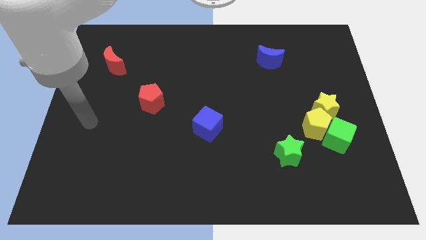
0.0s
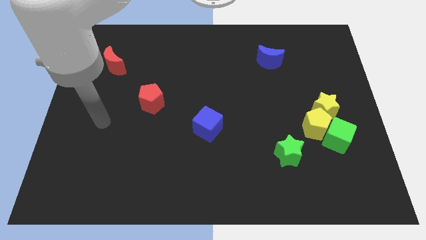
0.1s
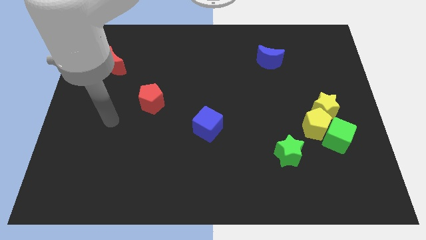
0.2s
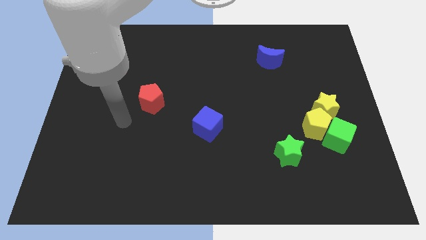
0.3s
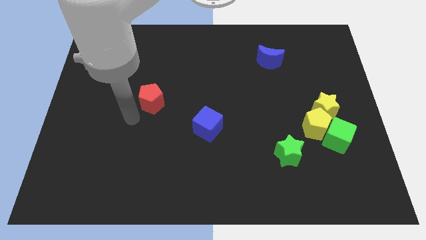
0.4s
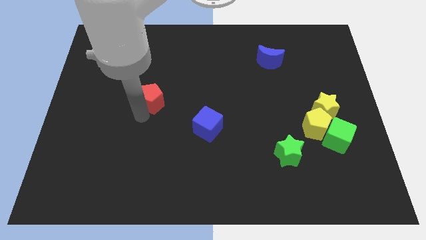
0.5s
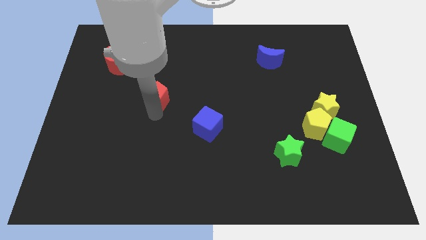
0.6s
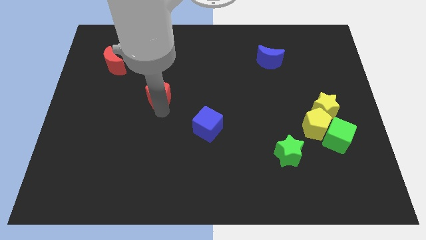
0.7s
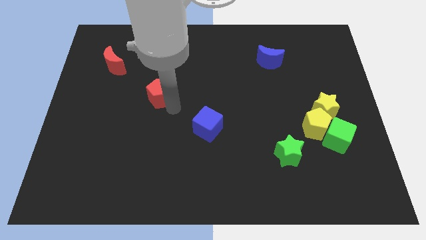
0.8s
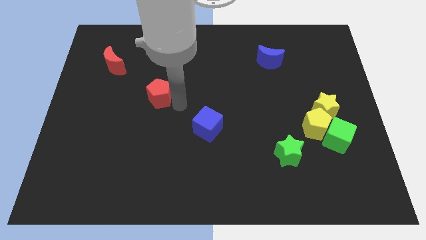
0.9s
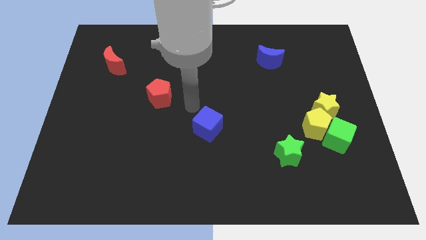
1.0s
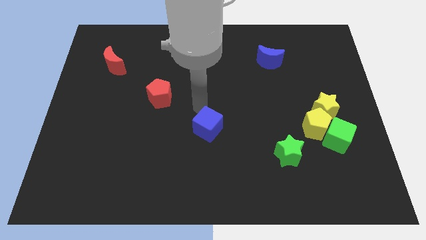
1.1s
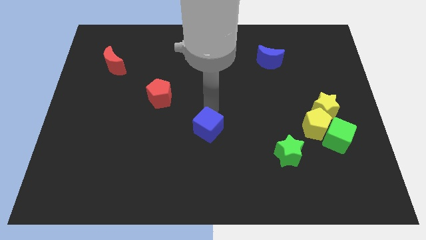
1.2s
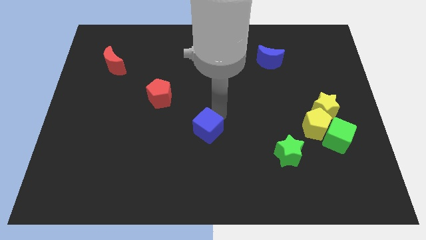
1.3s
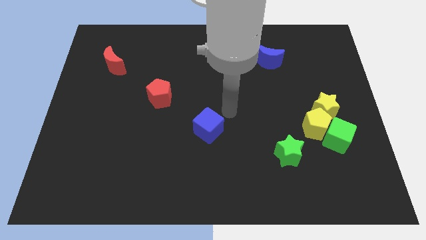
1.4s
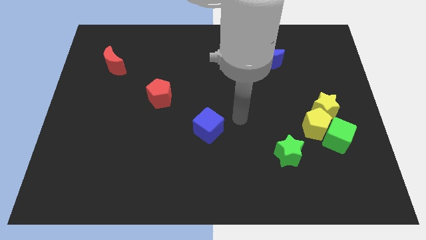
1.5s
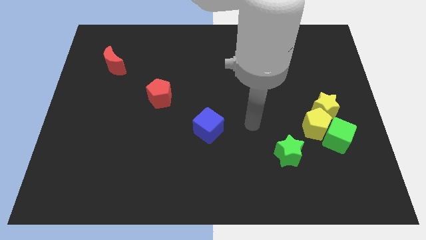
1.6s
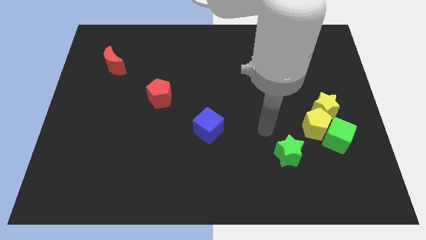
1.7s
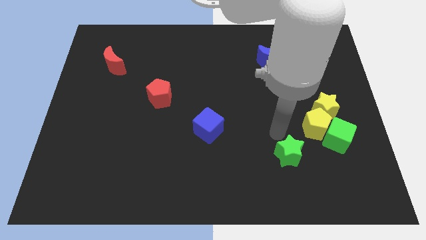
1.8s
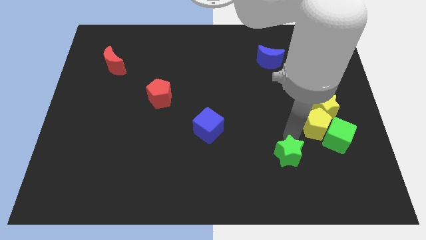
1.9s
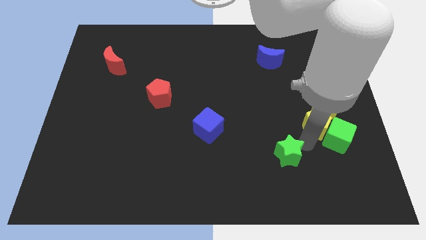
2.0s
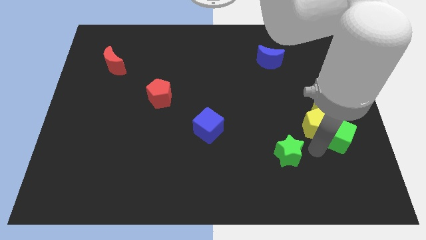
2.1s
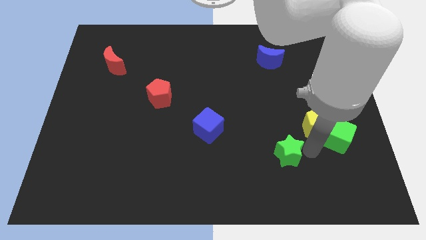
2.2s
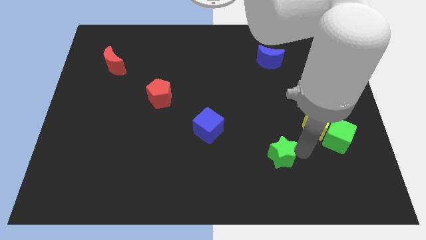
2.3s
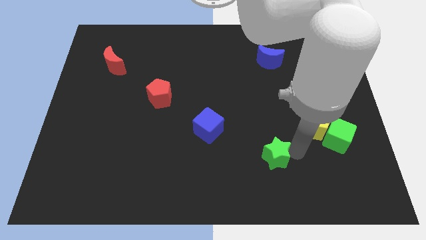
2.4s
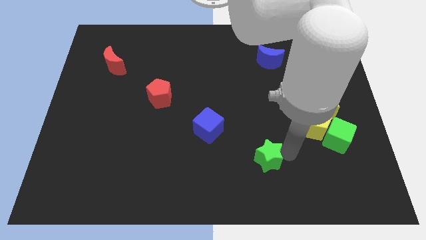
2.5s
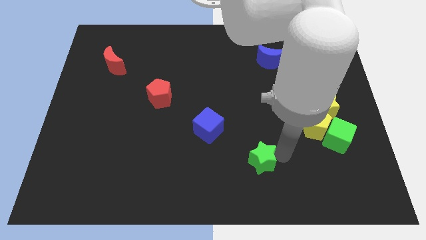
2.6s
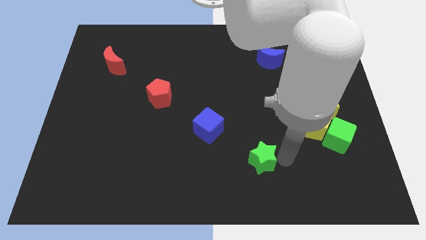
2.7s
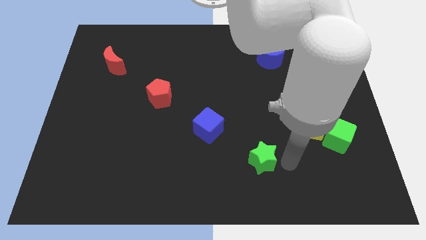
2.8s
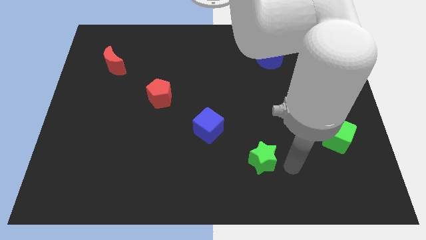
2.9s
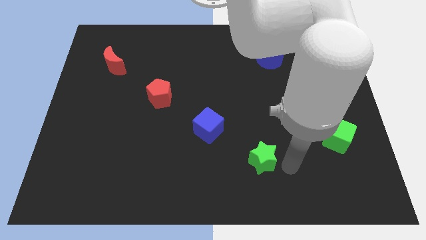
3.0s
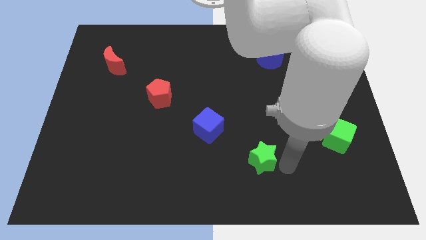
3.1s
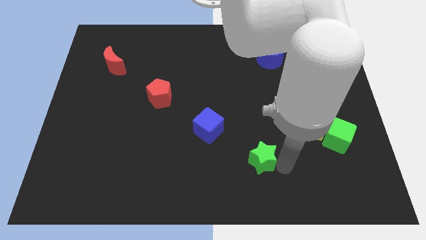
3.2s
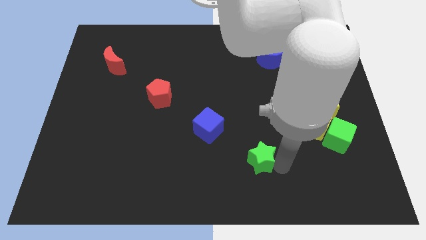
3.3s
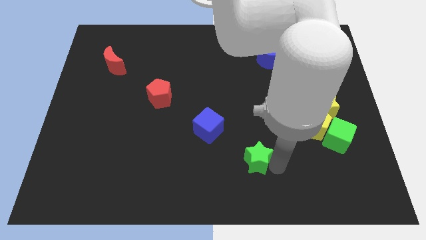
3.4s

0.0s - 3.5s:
push the green star slightly left

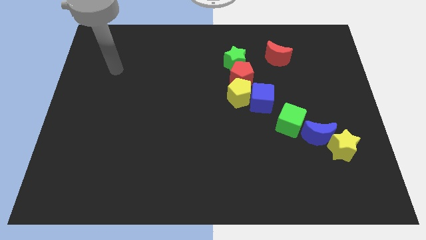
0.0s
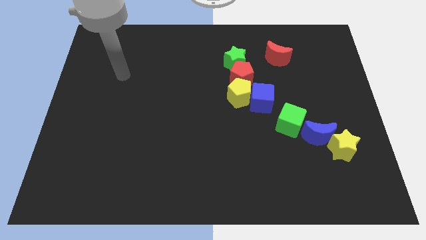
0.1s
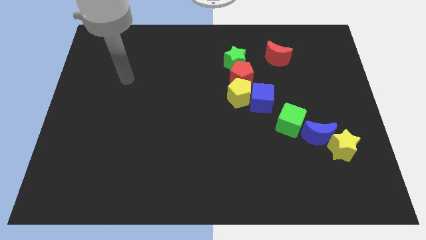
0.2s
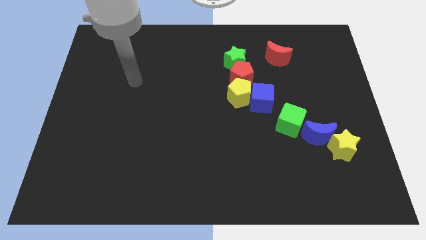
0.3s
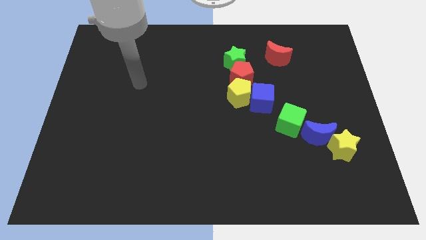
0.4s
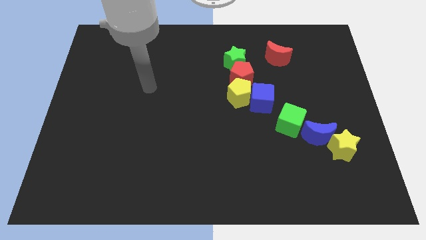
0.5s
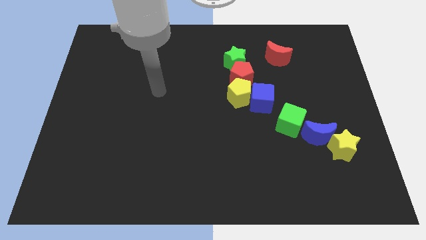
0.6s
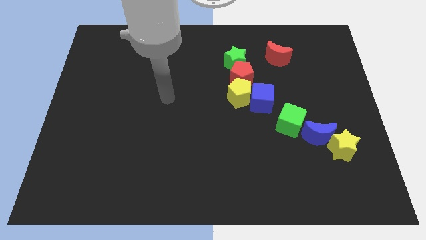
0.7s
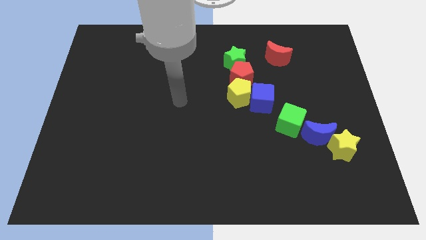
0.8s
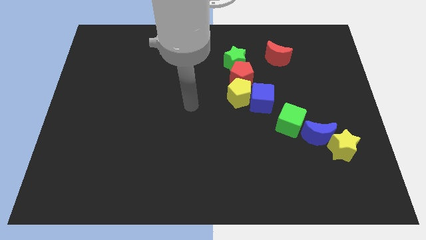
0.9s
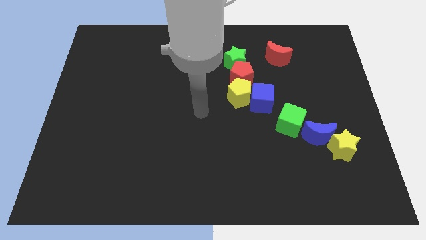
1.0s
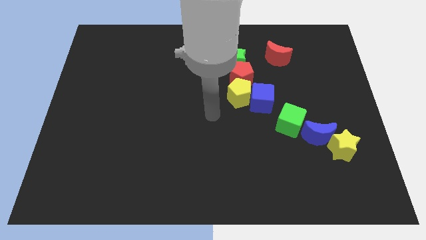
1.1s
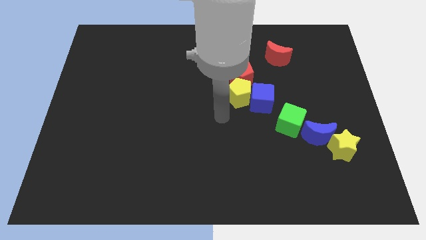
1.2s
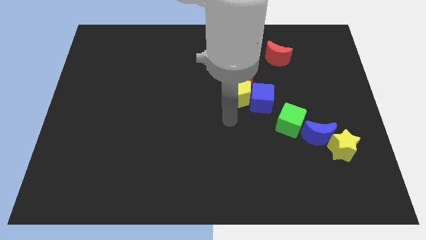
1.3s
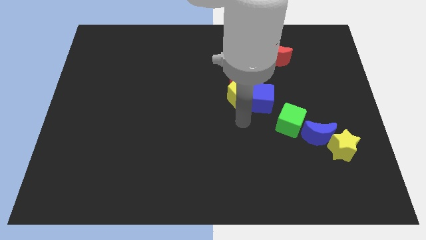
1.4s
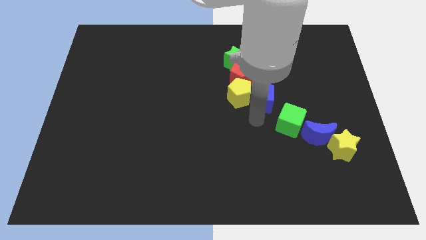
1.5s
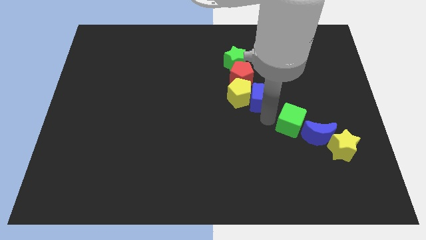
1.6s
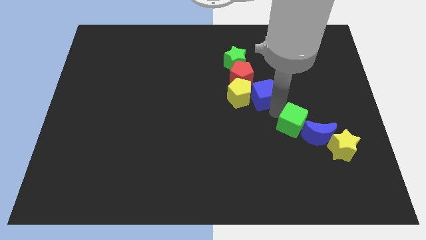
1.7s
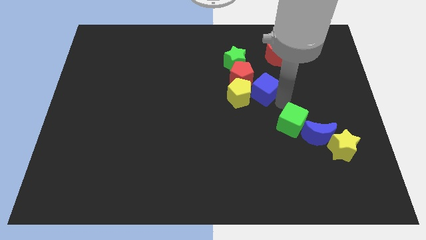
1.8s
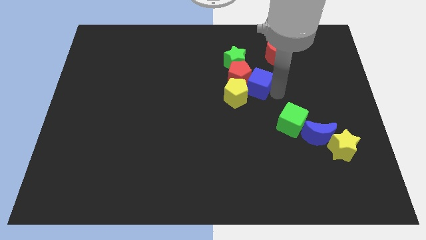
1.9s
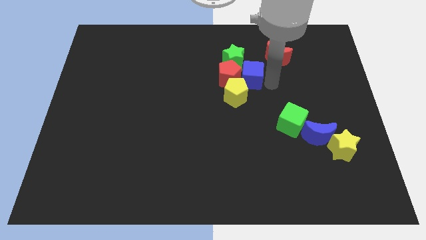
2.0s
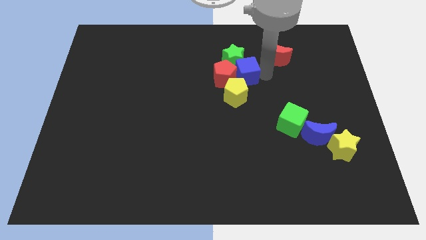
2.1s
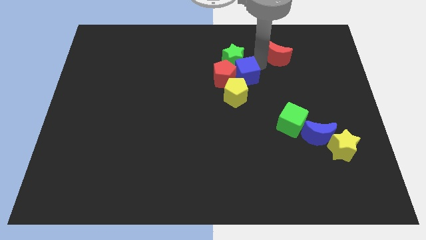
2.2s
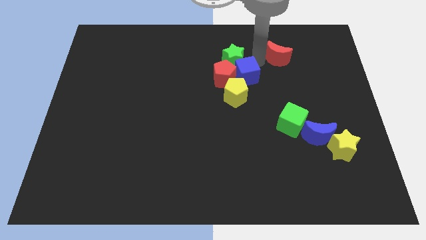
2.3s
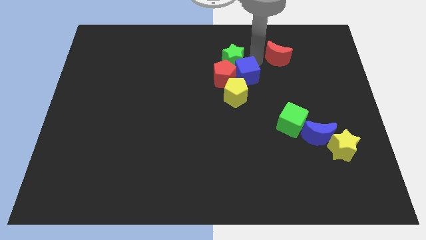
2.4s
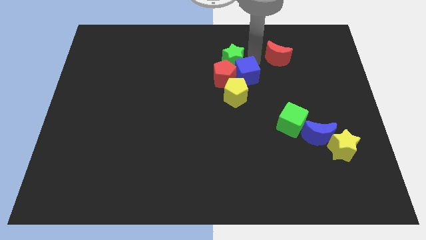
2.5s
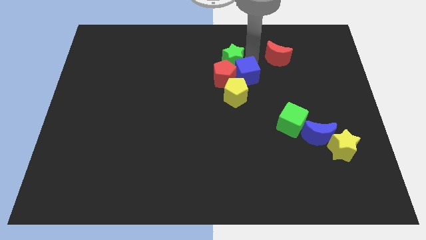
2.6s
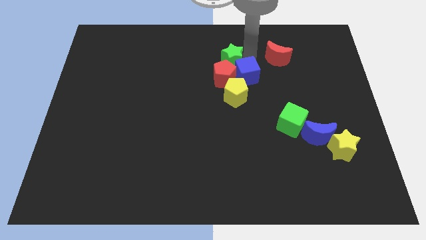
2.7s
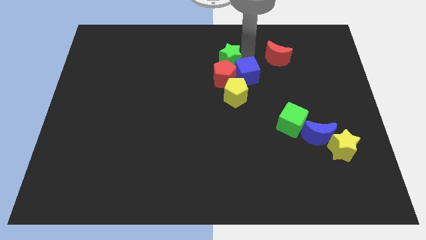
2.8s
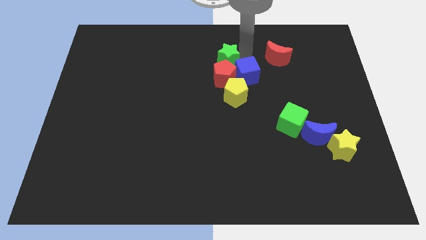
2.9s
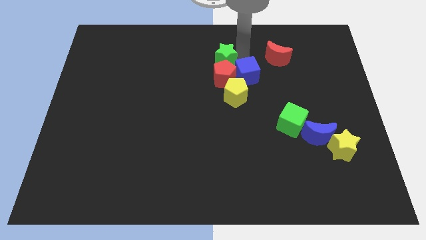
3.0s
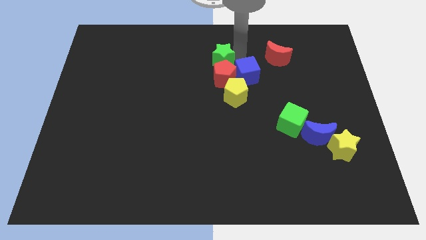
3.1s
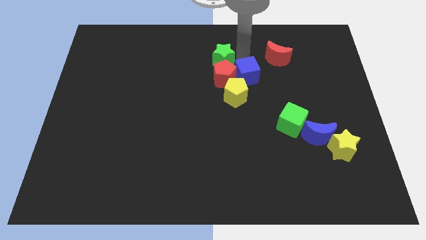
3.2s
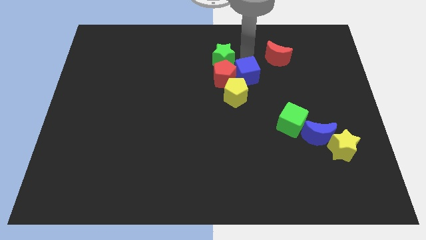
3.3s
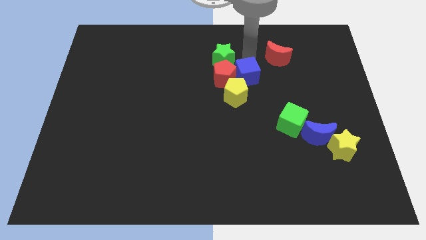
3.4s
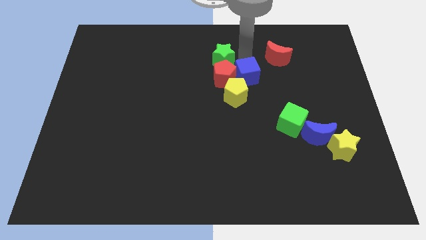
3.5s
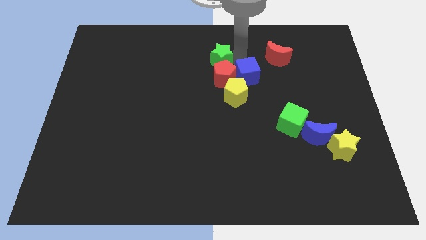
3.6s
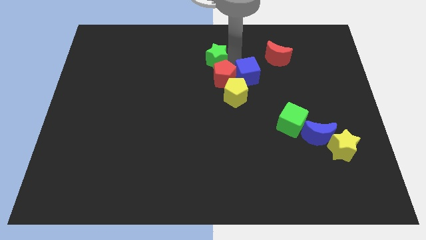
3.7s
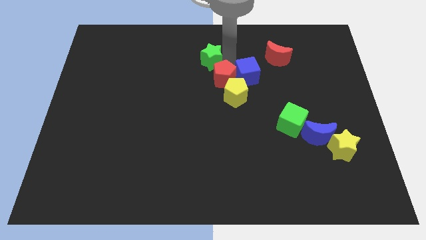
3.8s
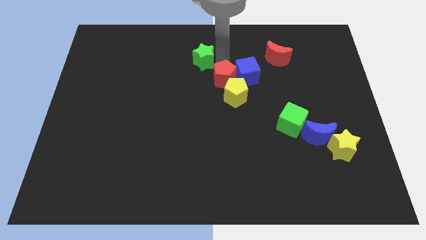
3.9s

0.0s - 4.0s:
push the green star a bit to the left

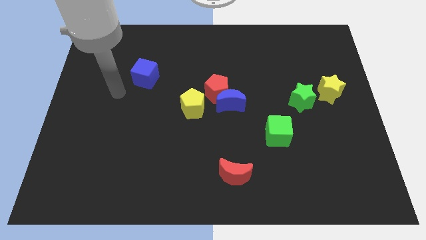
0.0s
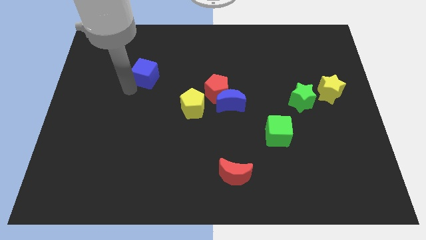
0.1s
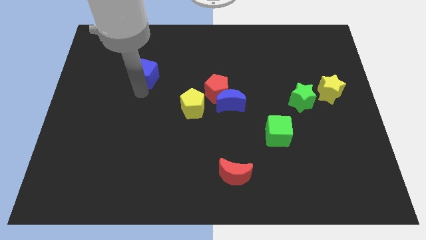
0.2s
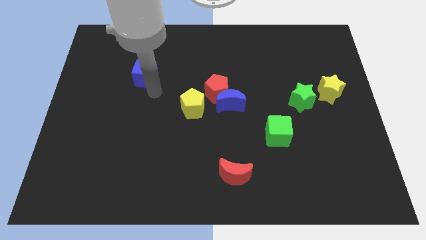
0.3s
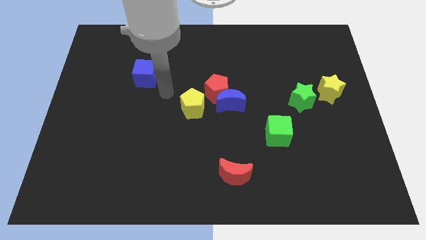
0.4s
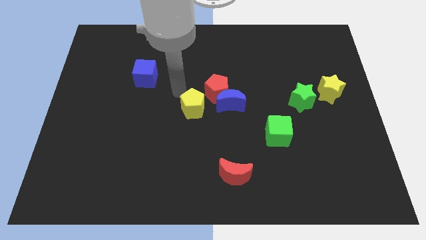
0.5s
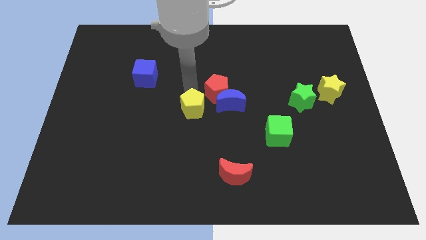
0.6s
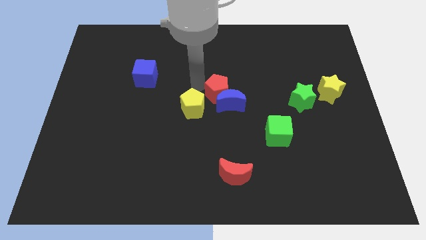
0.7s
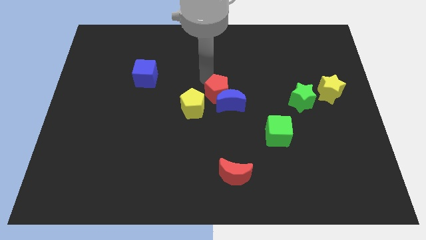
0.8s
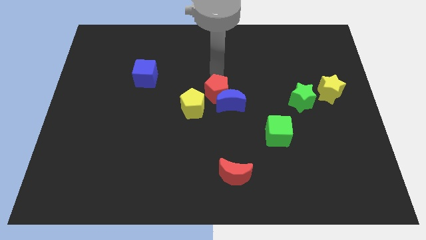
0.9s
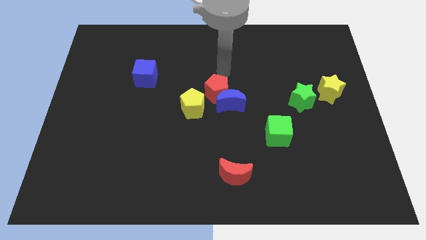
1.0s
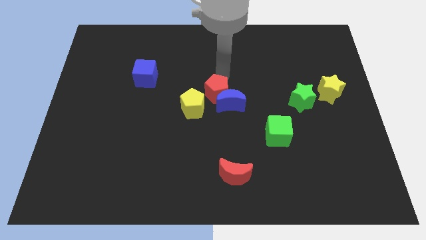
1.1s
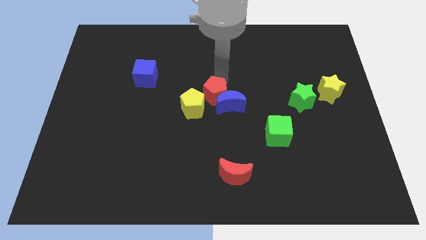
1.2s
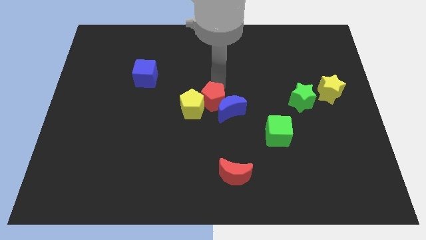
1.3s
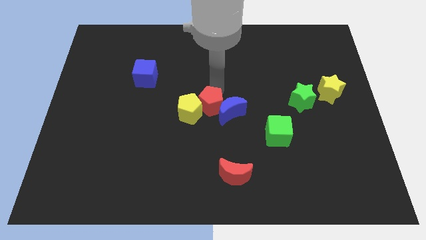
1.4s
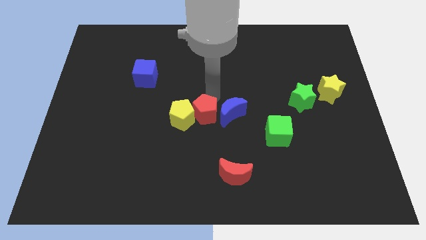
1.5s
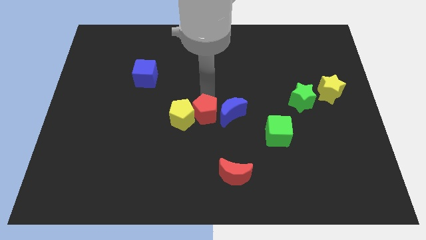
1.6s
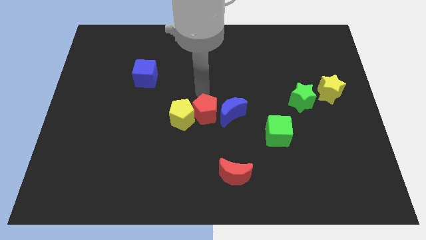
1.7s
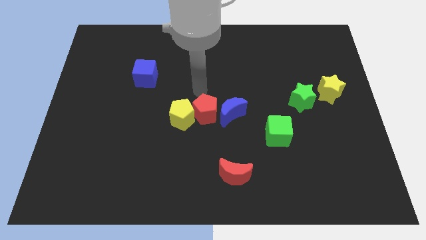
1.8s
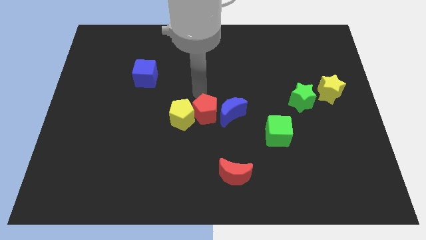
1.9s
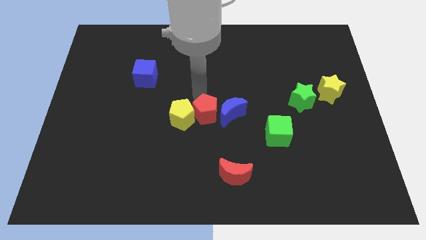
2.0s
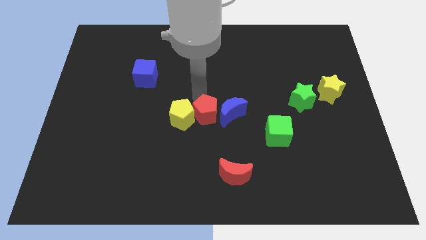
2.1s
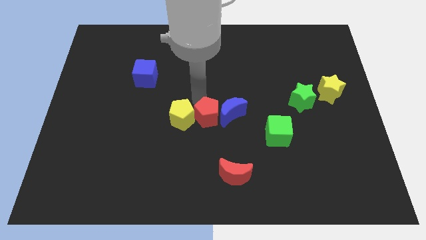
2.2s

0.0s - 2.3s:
push the red pentagon a little down
